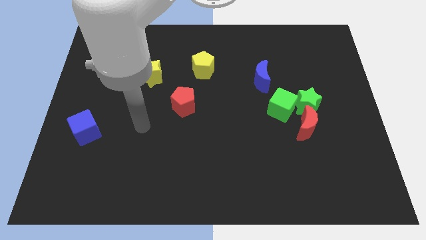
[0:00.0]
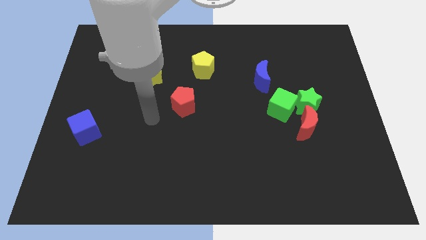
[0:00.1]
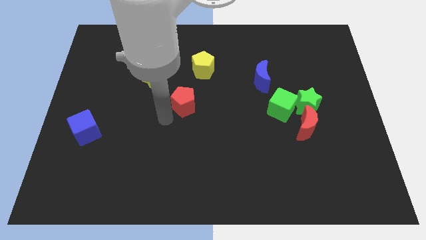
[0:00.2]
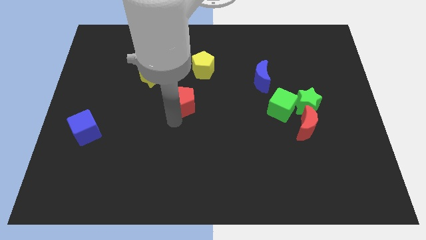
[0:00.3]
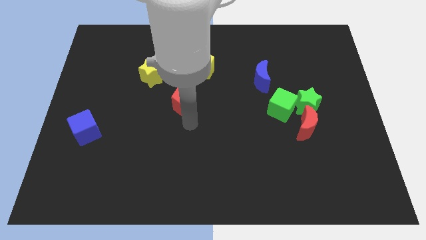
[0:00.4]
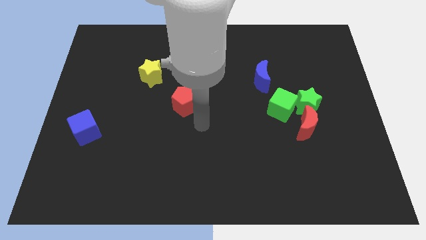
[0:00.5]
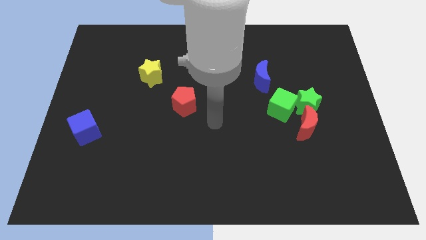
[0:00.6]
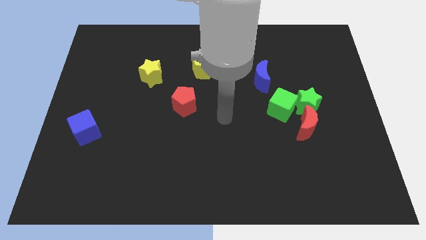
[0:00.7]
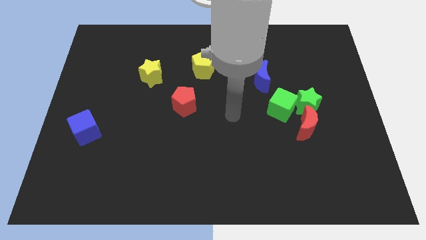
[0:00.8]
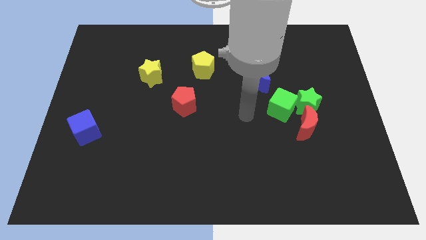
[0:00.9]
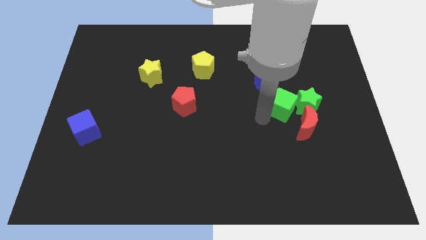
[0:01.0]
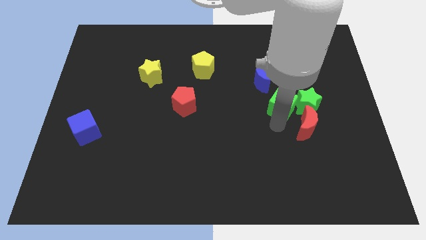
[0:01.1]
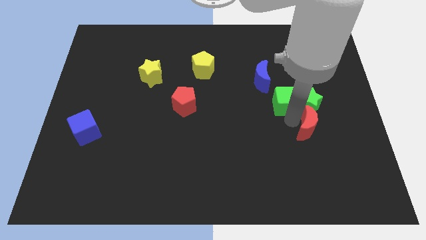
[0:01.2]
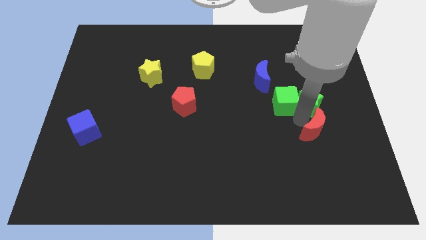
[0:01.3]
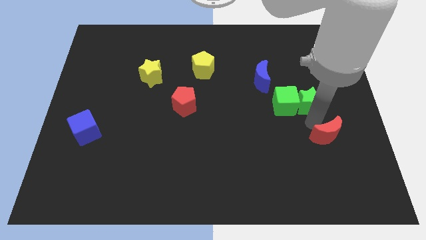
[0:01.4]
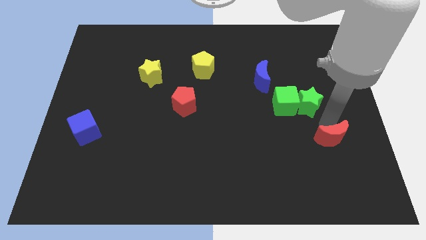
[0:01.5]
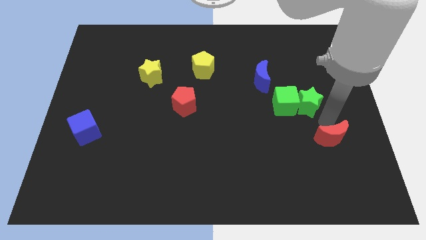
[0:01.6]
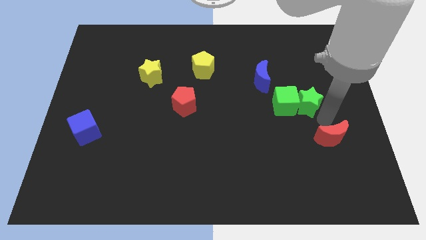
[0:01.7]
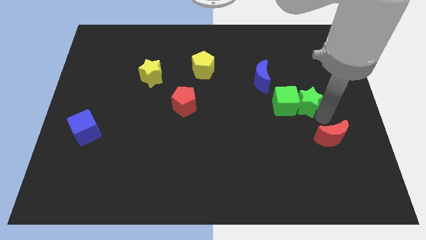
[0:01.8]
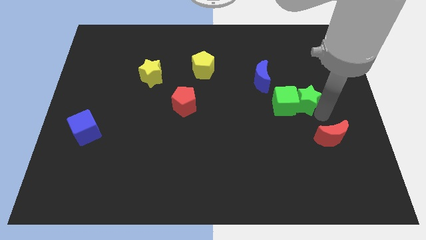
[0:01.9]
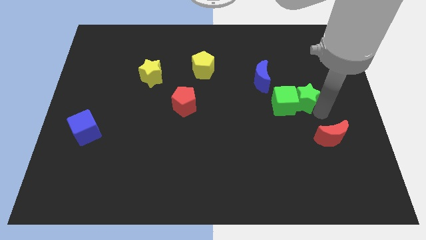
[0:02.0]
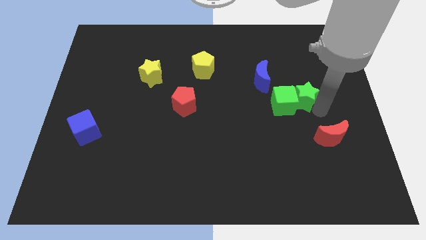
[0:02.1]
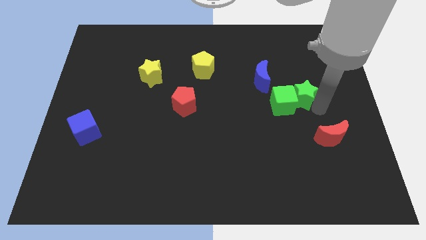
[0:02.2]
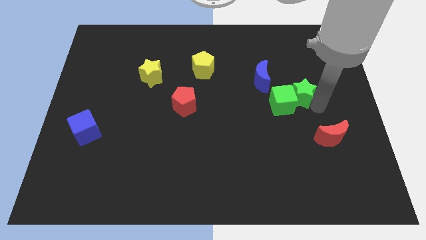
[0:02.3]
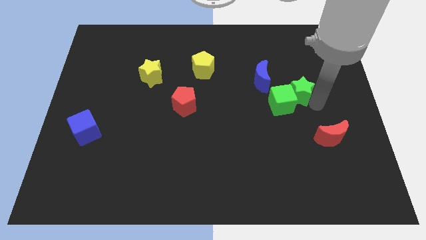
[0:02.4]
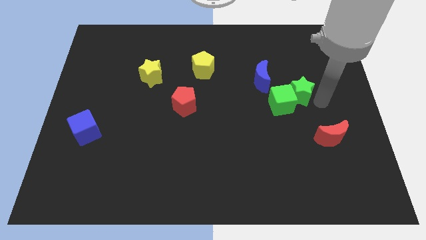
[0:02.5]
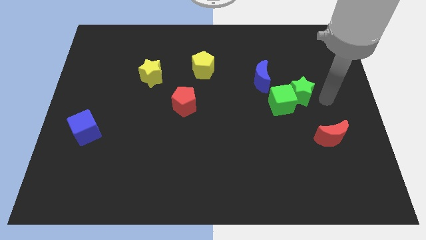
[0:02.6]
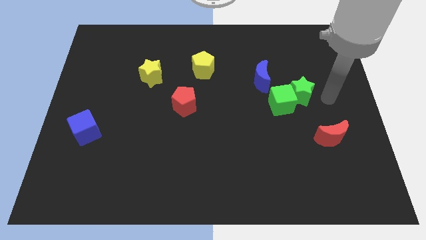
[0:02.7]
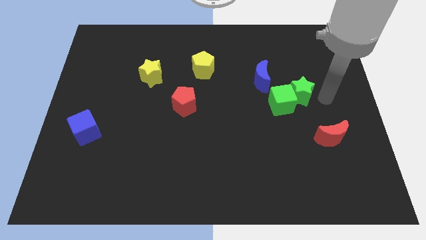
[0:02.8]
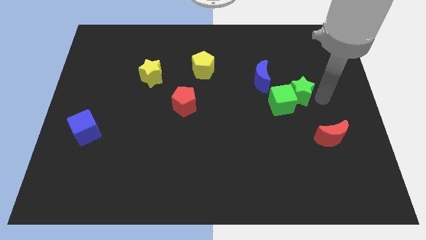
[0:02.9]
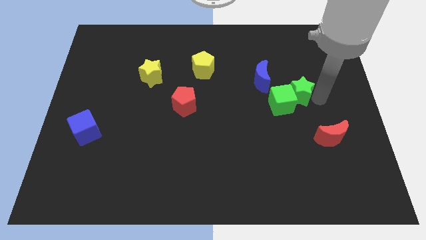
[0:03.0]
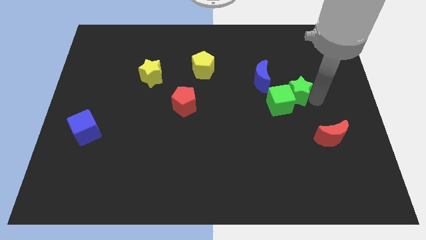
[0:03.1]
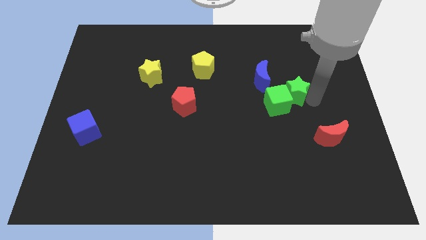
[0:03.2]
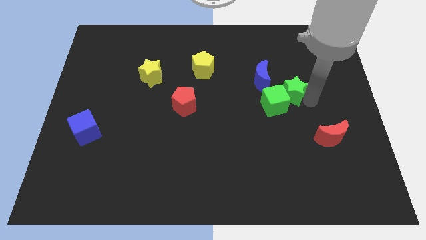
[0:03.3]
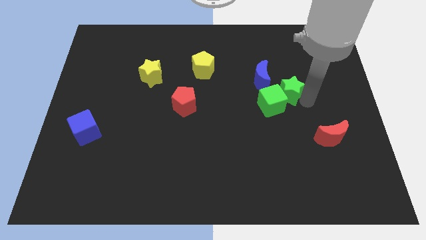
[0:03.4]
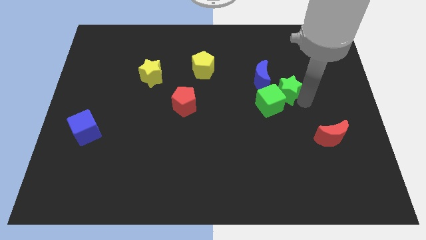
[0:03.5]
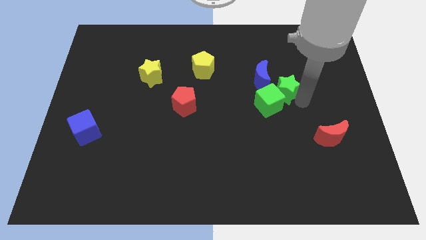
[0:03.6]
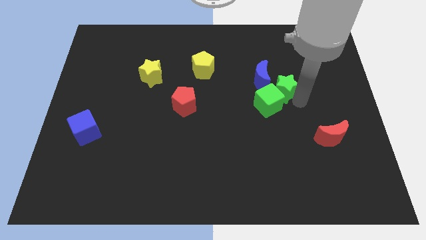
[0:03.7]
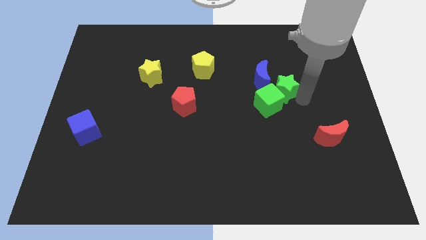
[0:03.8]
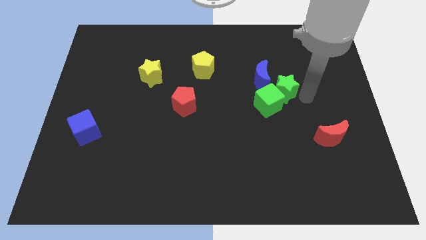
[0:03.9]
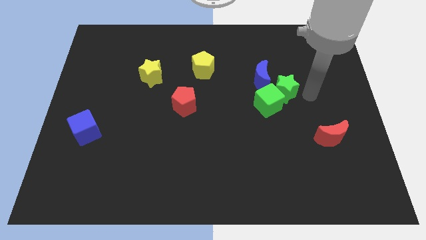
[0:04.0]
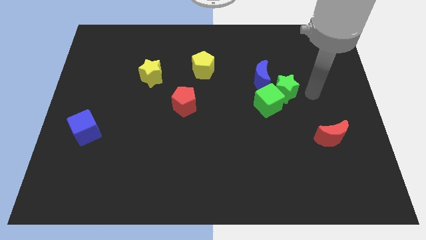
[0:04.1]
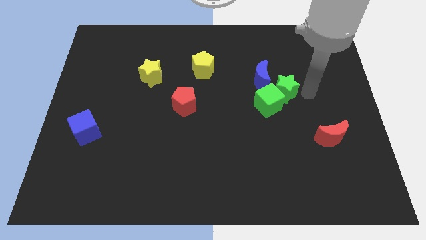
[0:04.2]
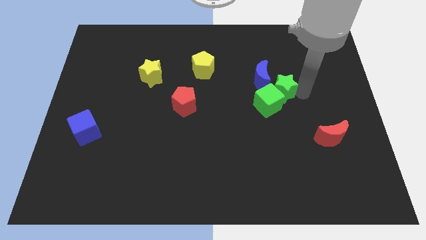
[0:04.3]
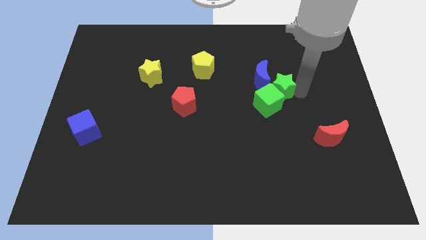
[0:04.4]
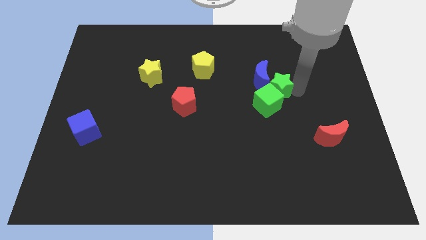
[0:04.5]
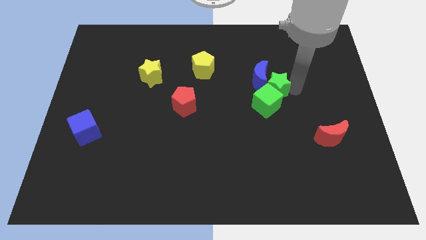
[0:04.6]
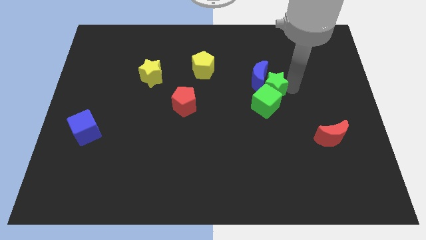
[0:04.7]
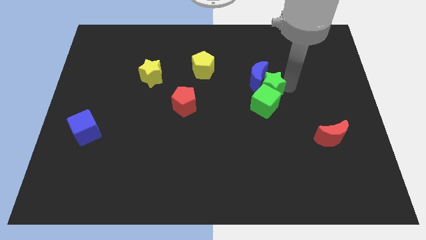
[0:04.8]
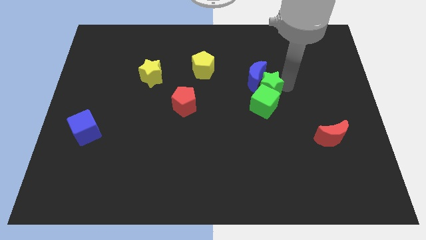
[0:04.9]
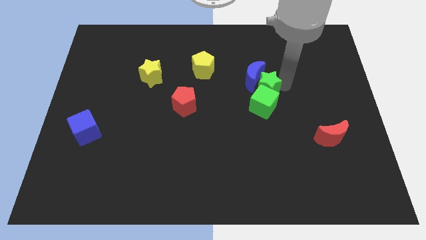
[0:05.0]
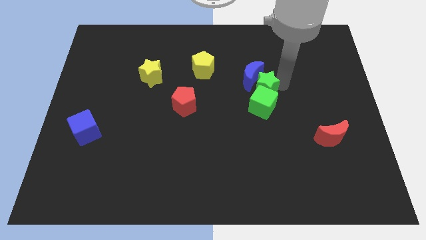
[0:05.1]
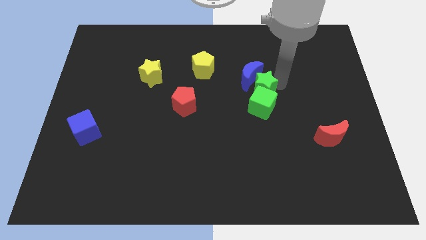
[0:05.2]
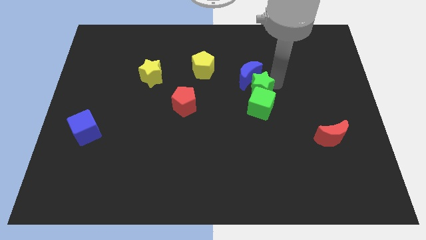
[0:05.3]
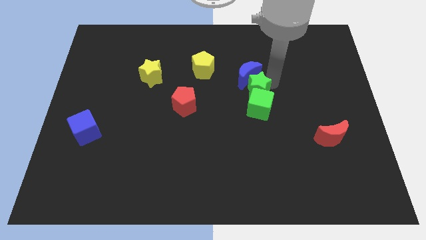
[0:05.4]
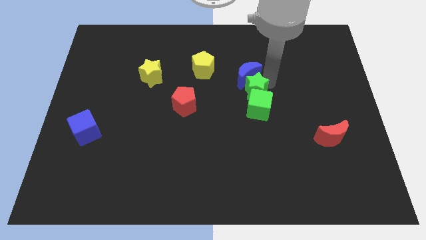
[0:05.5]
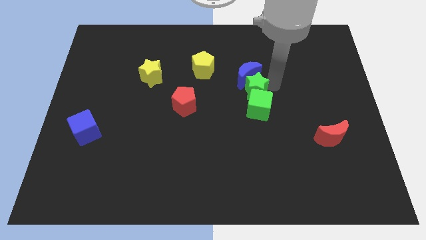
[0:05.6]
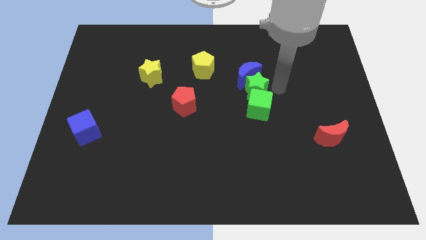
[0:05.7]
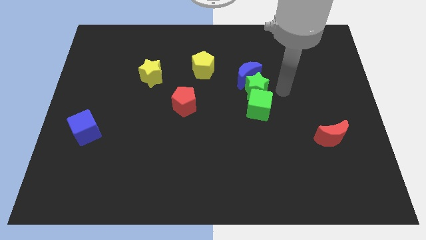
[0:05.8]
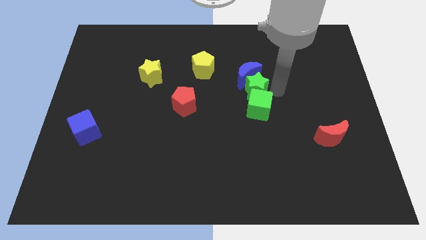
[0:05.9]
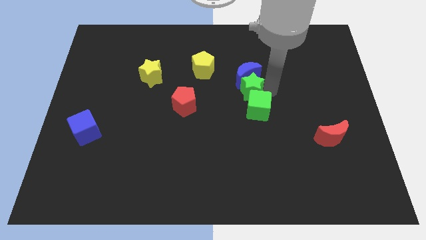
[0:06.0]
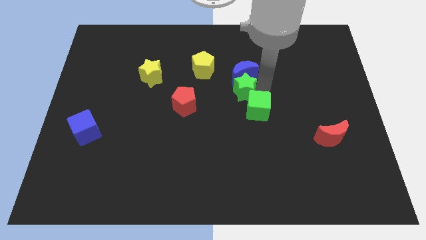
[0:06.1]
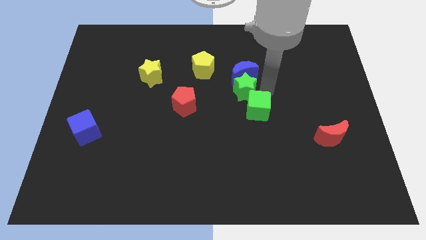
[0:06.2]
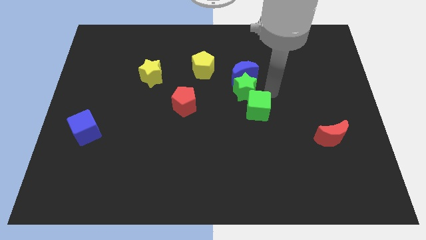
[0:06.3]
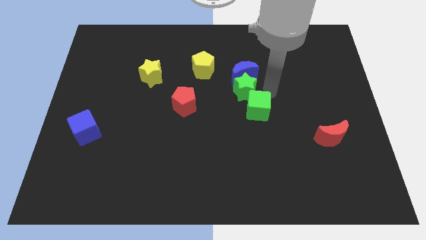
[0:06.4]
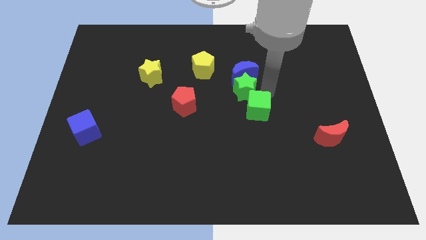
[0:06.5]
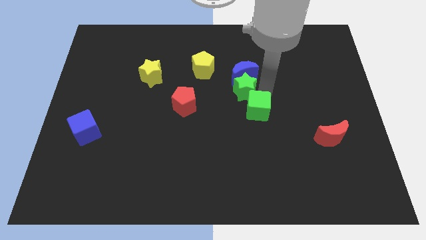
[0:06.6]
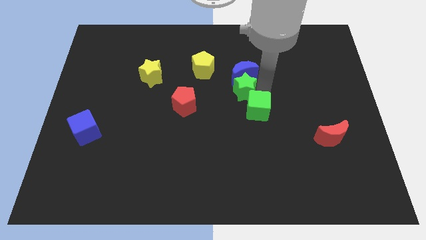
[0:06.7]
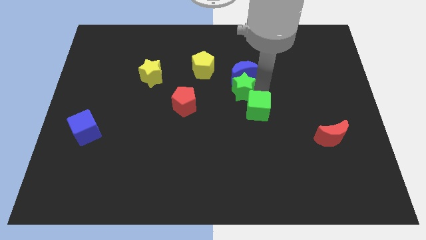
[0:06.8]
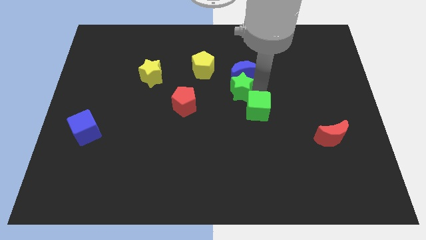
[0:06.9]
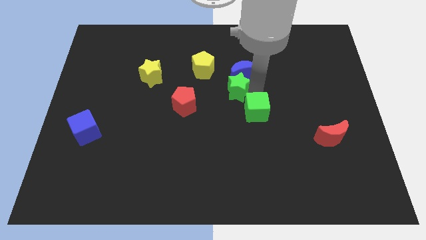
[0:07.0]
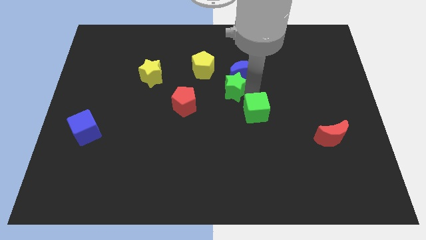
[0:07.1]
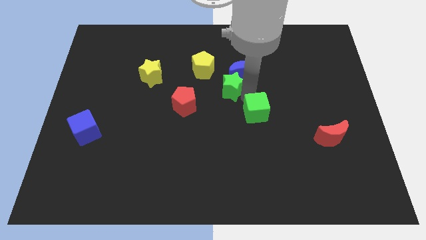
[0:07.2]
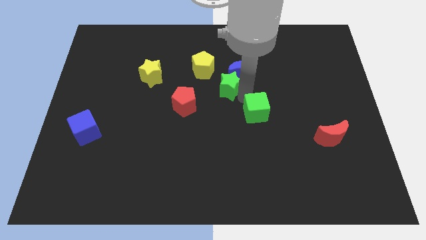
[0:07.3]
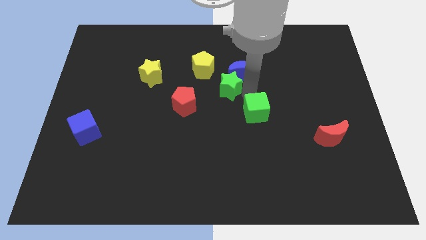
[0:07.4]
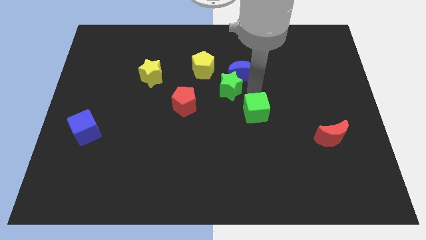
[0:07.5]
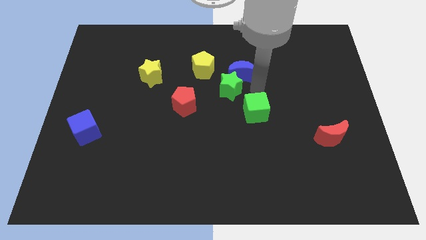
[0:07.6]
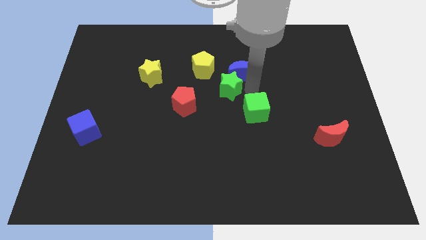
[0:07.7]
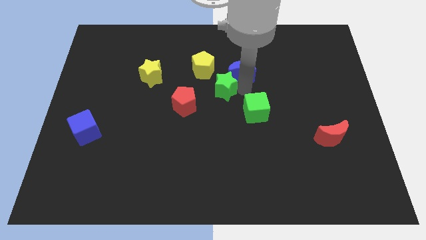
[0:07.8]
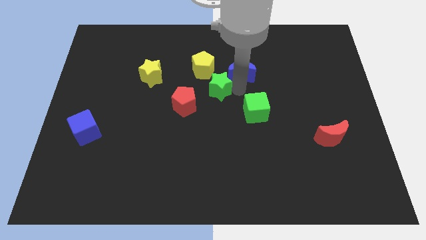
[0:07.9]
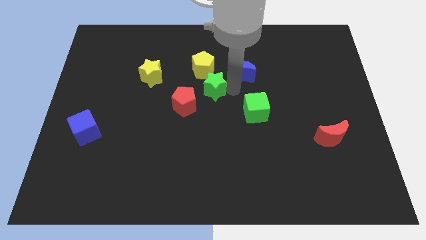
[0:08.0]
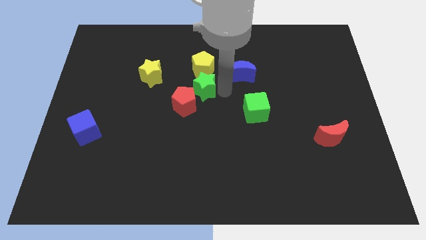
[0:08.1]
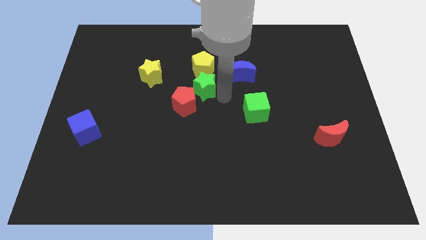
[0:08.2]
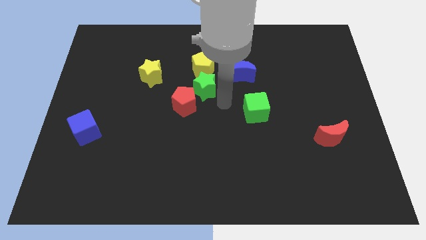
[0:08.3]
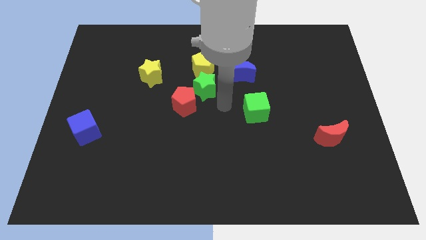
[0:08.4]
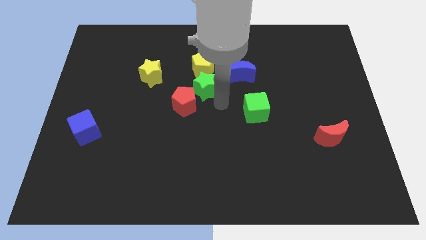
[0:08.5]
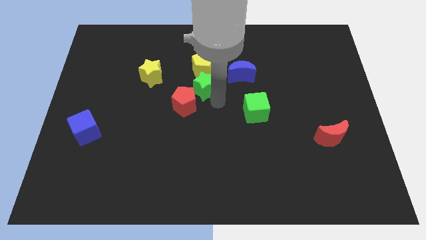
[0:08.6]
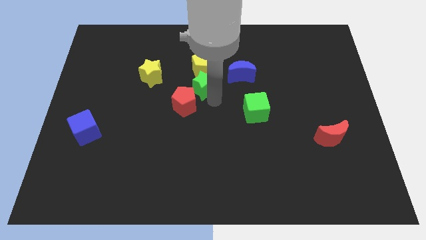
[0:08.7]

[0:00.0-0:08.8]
slide the green star to the top of the red pentagon
